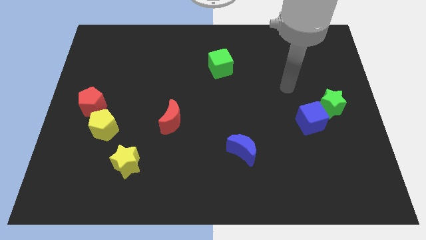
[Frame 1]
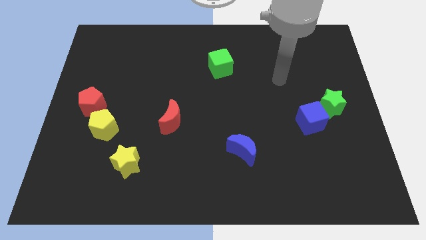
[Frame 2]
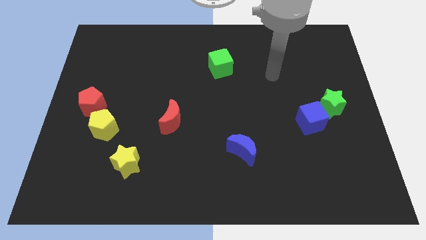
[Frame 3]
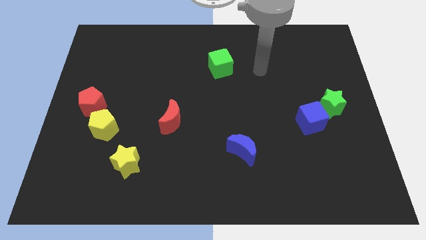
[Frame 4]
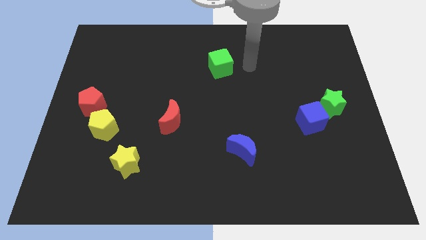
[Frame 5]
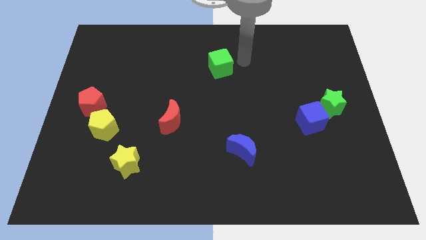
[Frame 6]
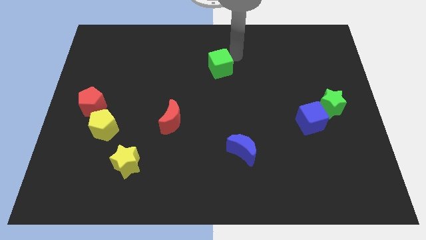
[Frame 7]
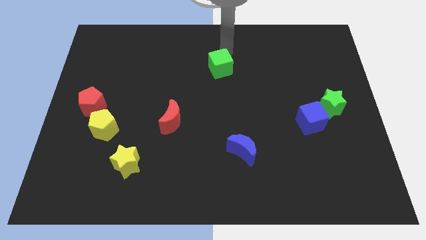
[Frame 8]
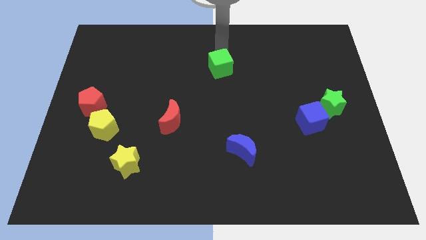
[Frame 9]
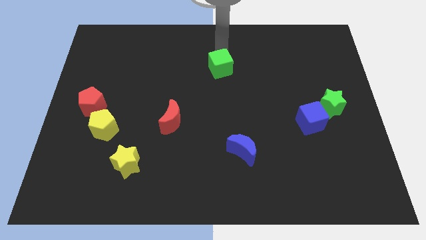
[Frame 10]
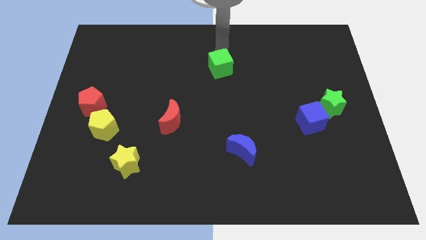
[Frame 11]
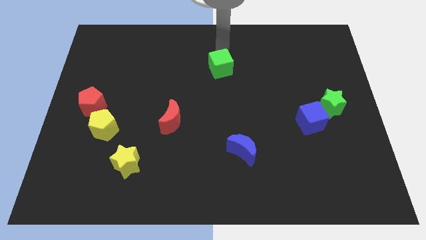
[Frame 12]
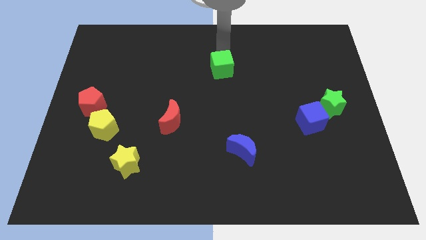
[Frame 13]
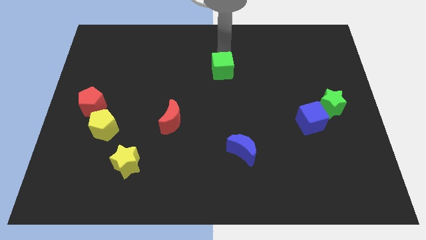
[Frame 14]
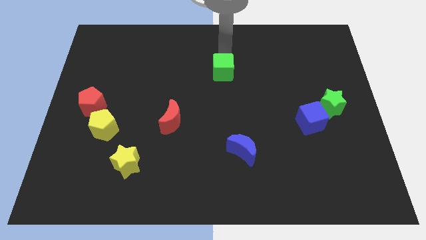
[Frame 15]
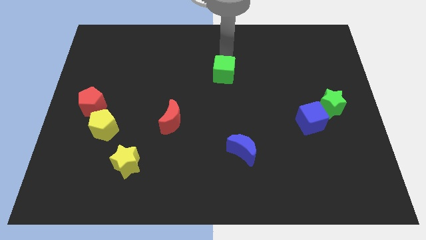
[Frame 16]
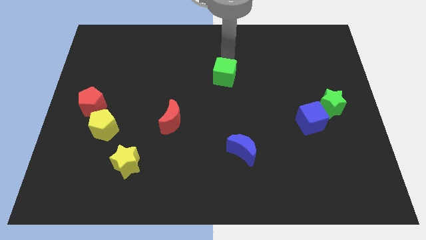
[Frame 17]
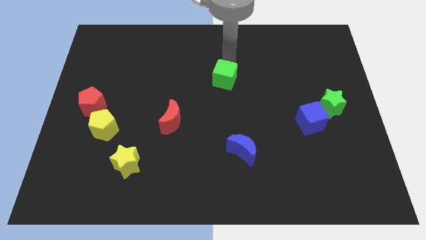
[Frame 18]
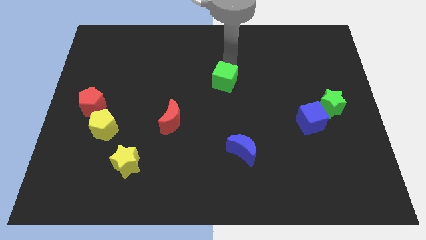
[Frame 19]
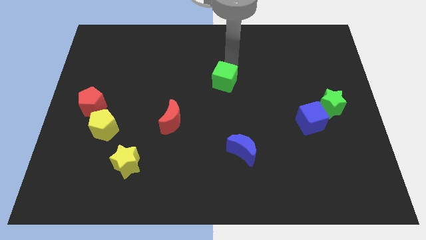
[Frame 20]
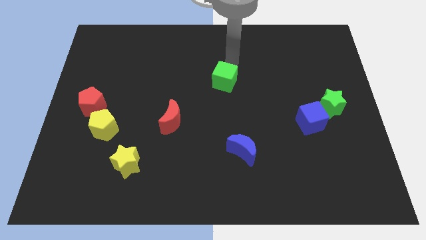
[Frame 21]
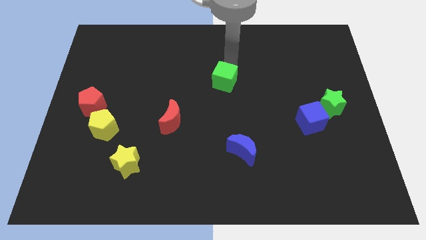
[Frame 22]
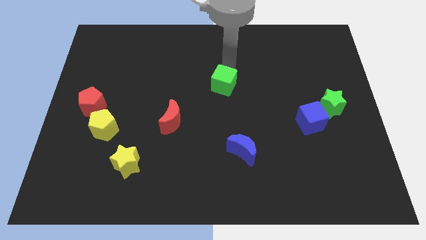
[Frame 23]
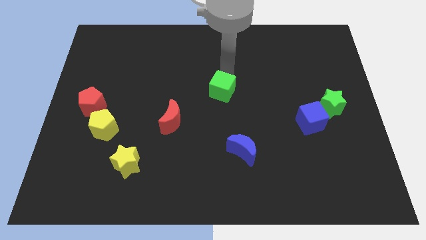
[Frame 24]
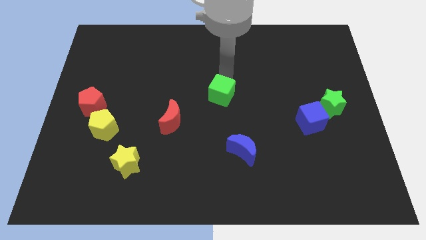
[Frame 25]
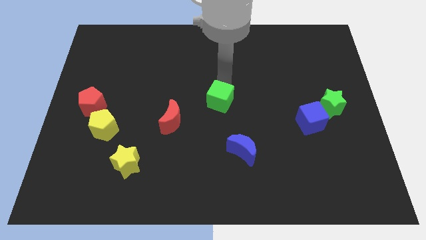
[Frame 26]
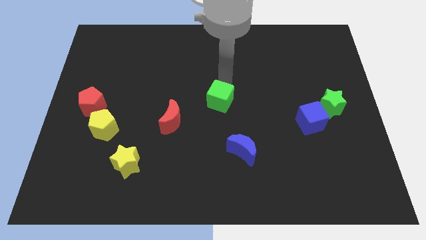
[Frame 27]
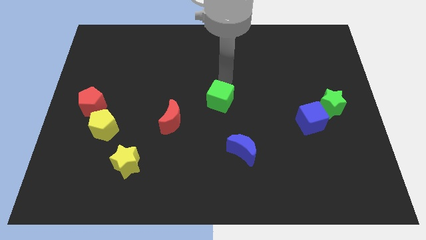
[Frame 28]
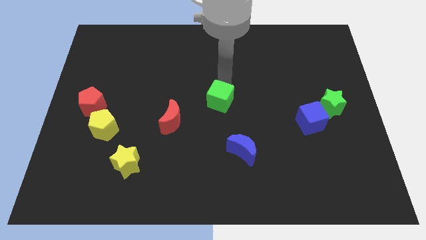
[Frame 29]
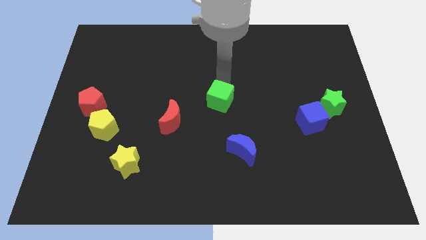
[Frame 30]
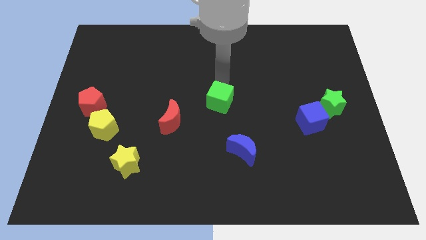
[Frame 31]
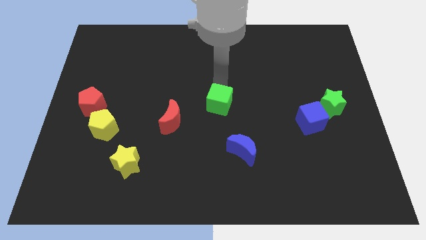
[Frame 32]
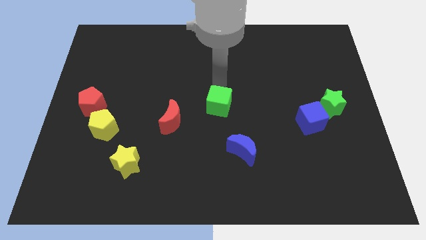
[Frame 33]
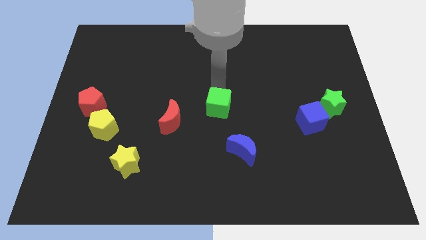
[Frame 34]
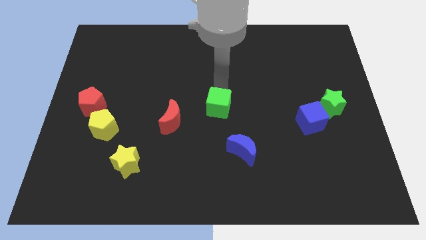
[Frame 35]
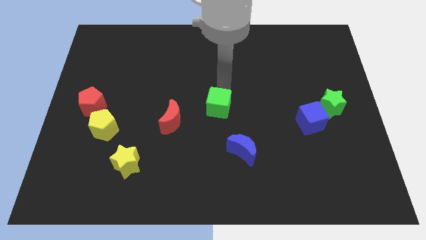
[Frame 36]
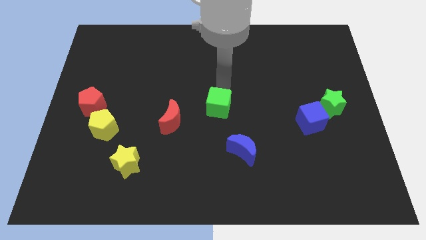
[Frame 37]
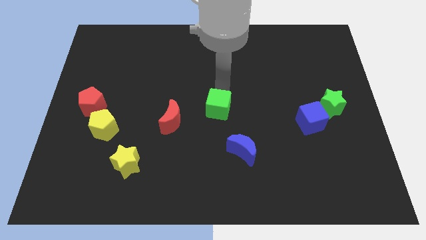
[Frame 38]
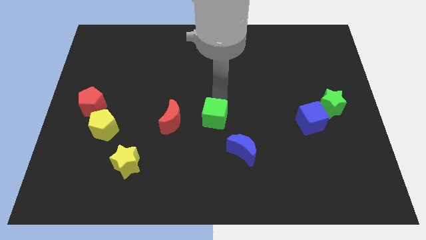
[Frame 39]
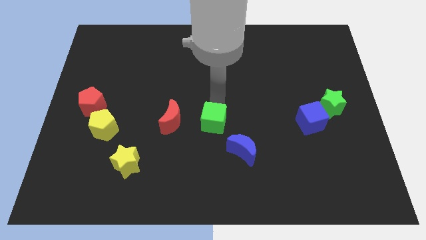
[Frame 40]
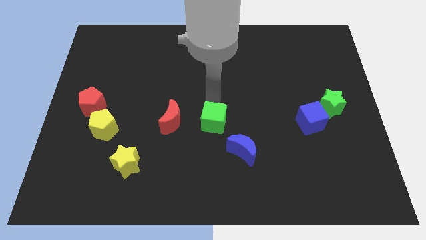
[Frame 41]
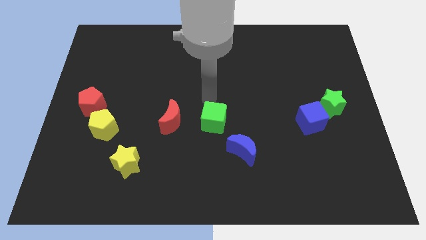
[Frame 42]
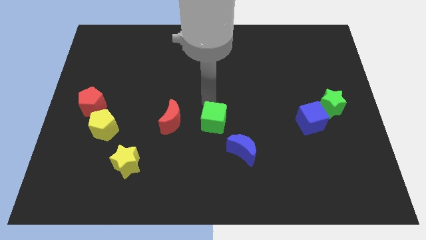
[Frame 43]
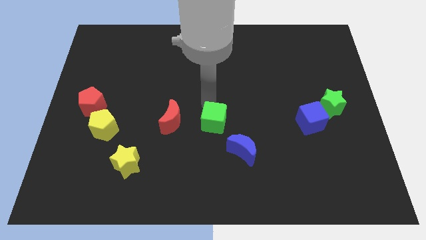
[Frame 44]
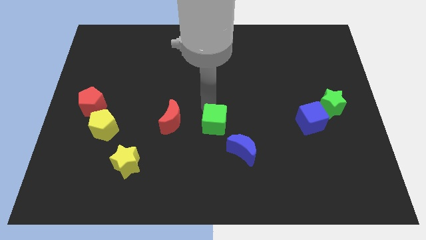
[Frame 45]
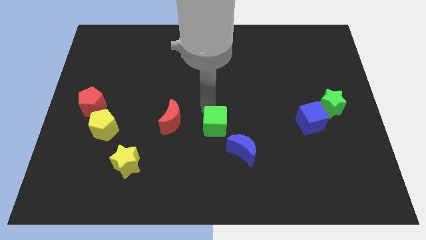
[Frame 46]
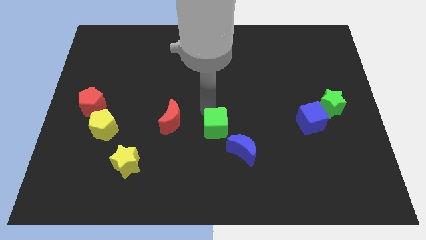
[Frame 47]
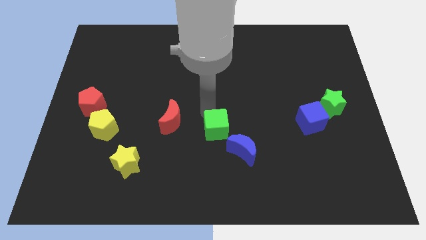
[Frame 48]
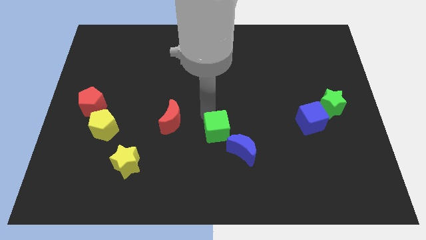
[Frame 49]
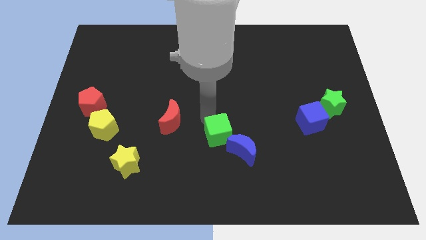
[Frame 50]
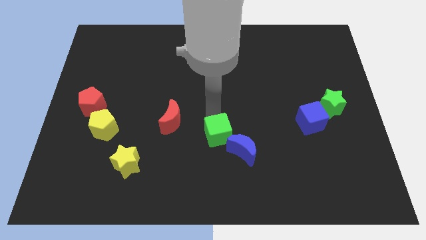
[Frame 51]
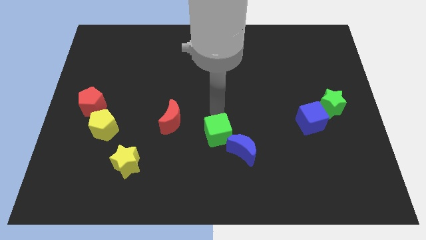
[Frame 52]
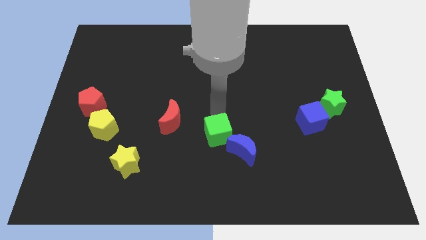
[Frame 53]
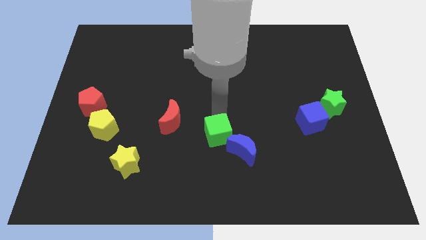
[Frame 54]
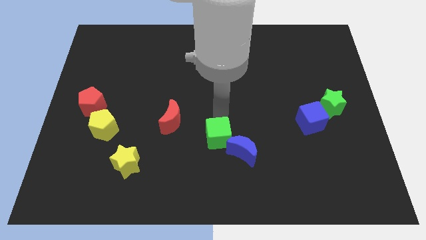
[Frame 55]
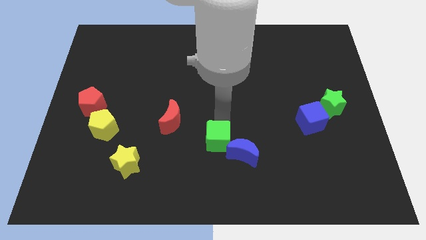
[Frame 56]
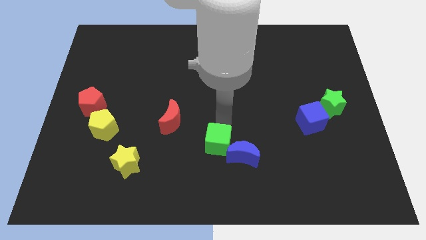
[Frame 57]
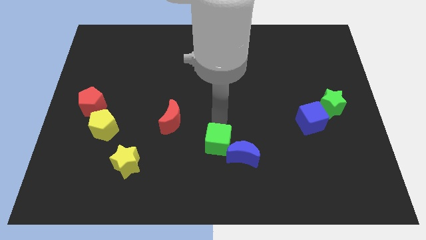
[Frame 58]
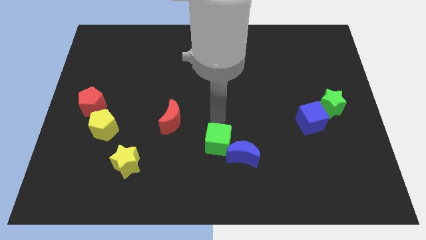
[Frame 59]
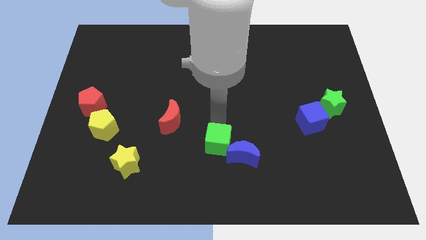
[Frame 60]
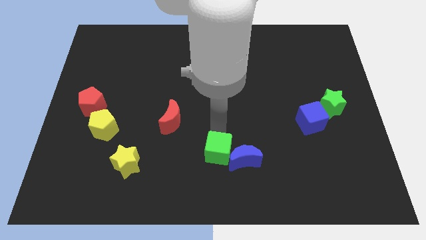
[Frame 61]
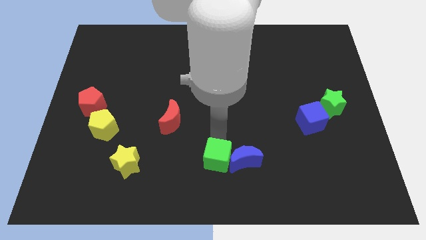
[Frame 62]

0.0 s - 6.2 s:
push the green cube diagonally down and to the left of the blue moon
